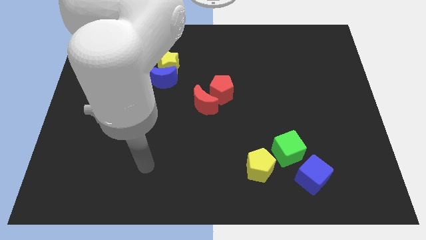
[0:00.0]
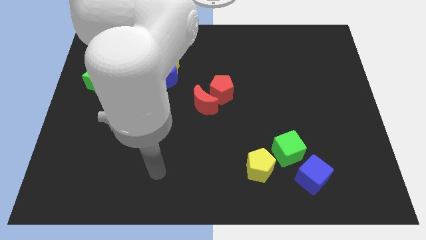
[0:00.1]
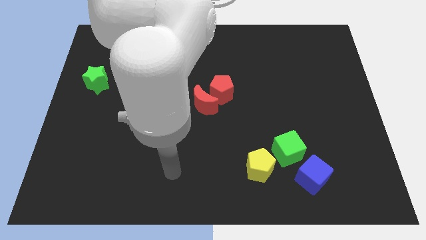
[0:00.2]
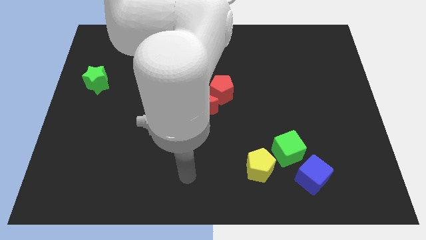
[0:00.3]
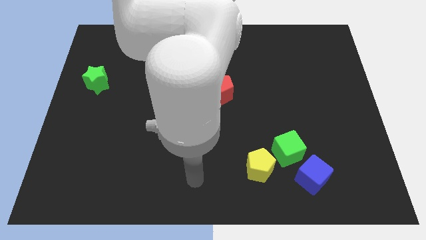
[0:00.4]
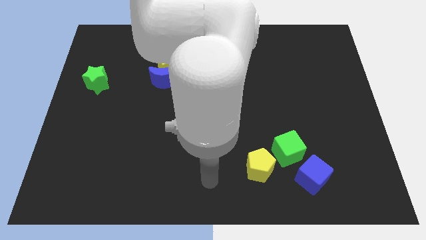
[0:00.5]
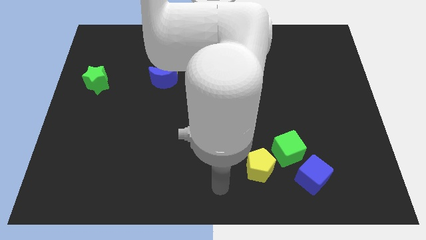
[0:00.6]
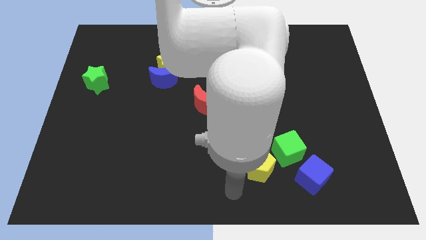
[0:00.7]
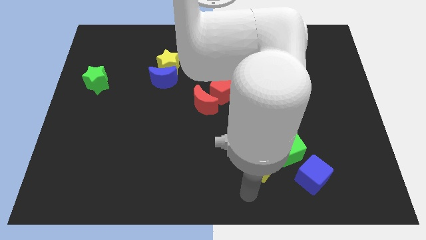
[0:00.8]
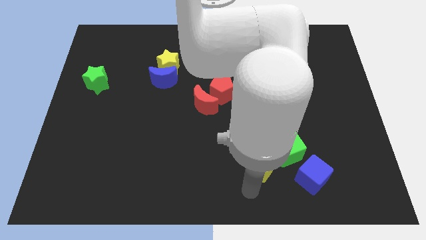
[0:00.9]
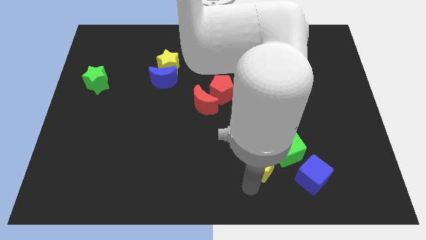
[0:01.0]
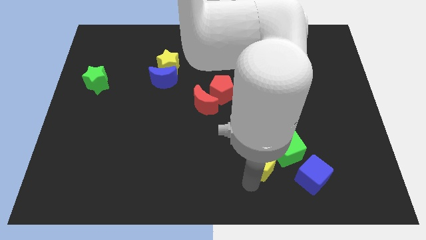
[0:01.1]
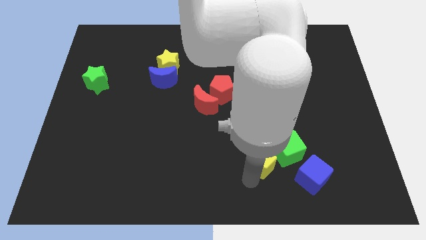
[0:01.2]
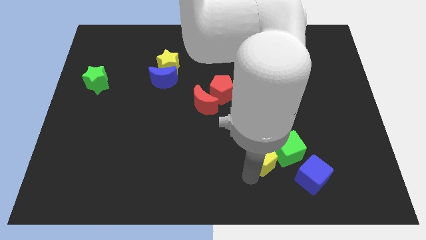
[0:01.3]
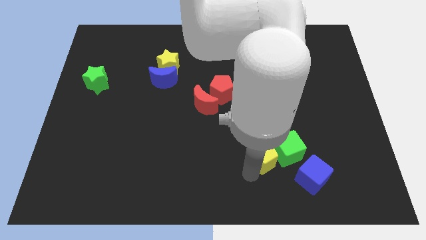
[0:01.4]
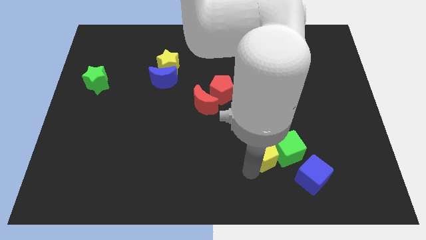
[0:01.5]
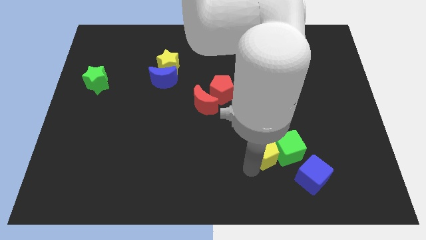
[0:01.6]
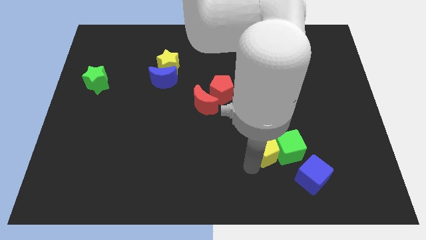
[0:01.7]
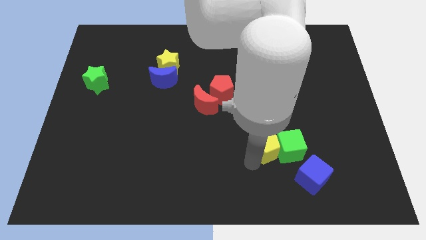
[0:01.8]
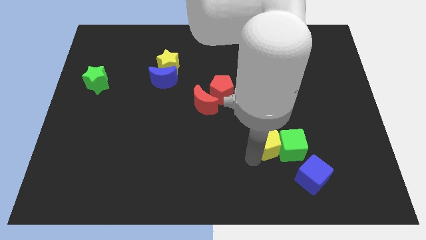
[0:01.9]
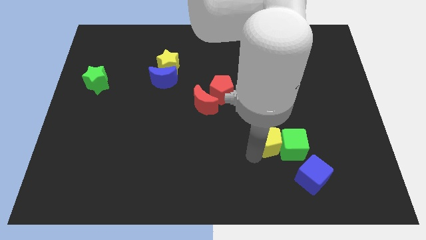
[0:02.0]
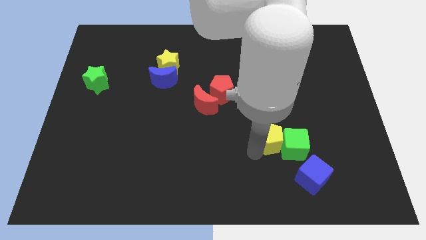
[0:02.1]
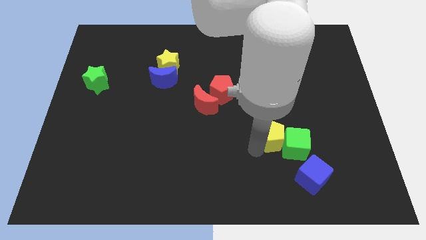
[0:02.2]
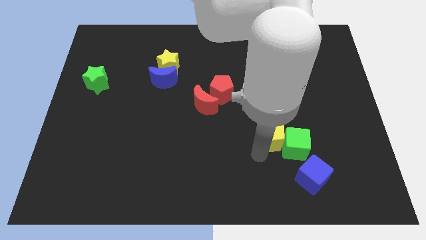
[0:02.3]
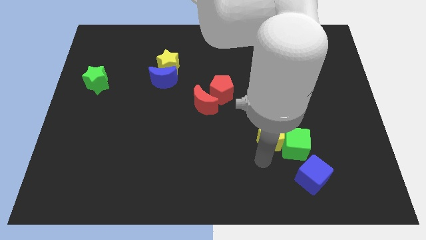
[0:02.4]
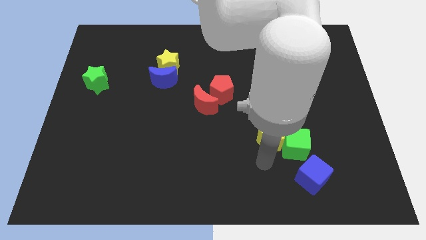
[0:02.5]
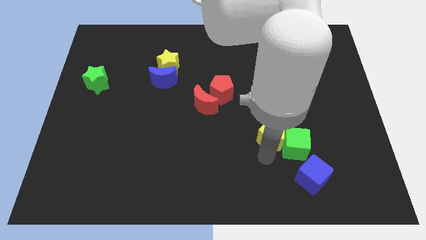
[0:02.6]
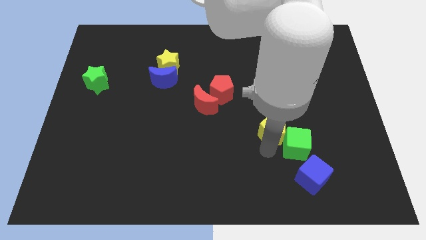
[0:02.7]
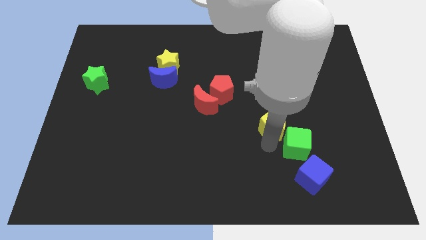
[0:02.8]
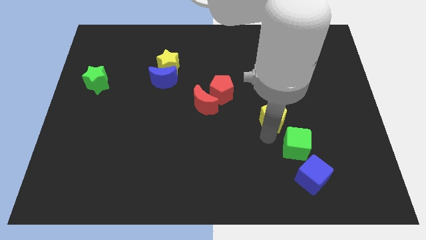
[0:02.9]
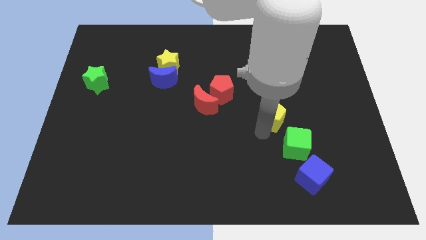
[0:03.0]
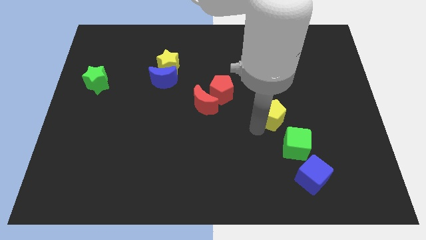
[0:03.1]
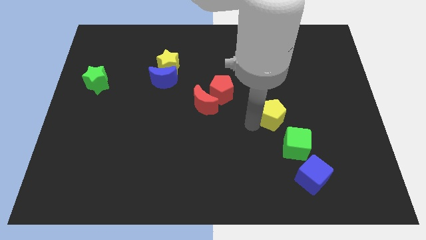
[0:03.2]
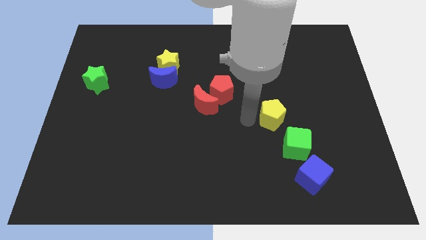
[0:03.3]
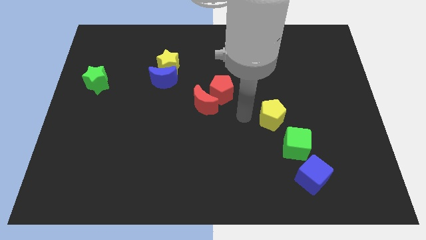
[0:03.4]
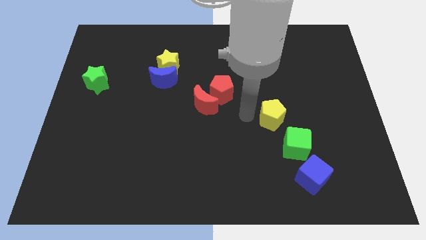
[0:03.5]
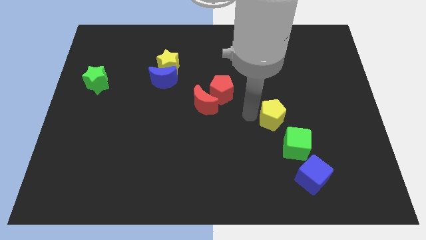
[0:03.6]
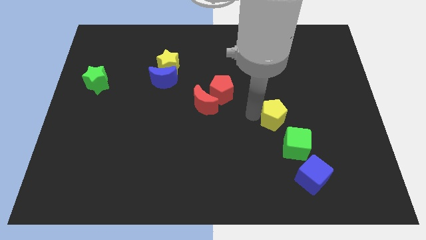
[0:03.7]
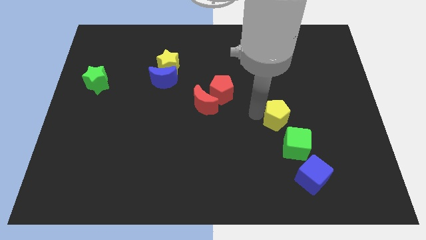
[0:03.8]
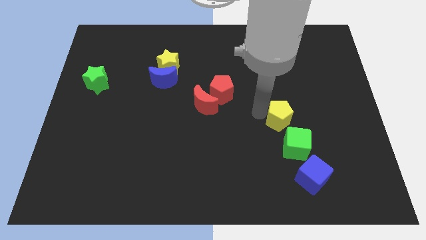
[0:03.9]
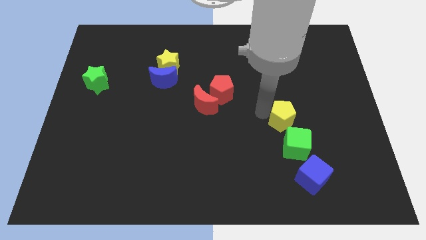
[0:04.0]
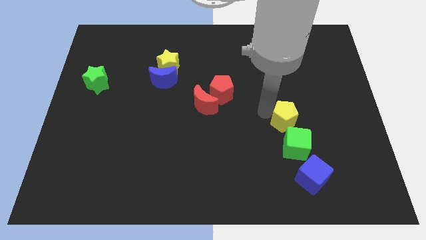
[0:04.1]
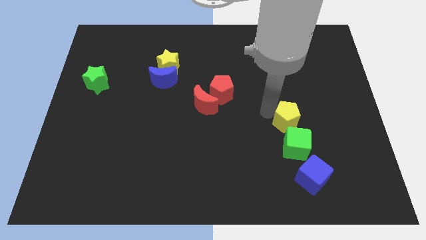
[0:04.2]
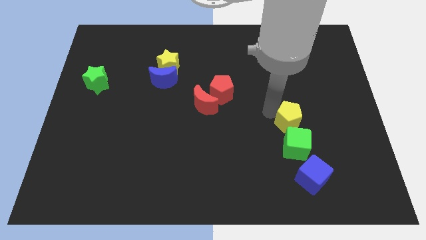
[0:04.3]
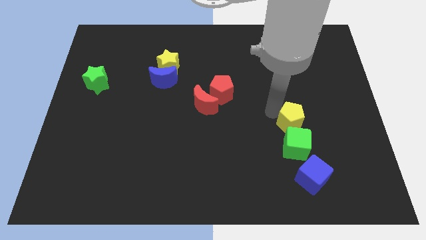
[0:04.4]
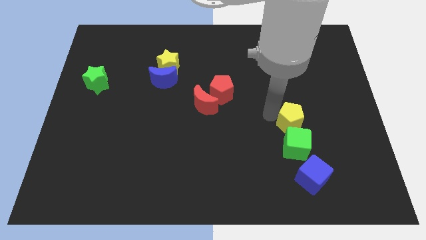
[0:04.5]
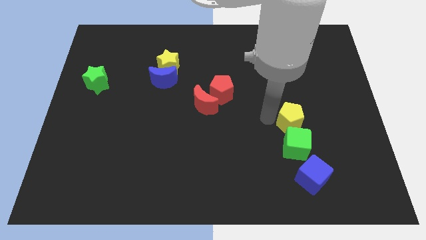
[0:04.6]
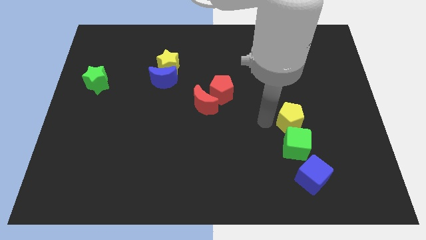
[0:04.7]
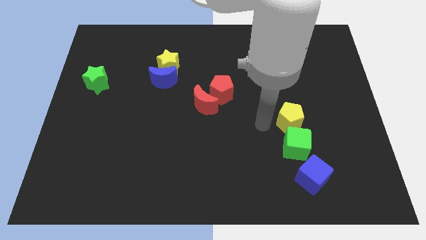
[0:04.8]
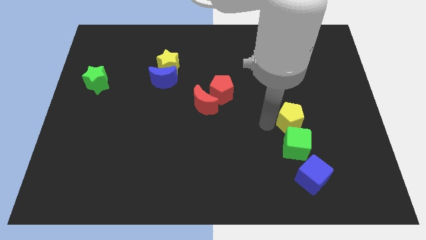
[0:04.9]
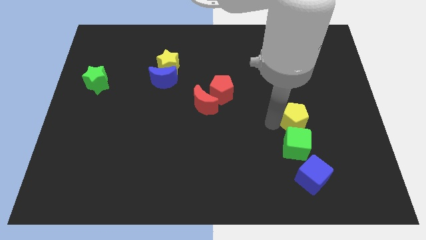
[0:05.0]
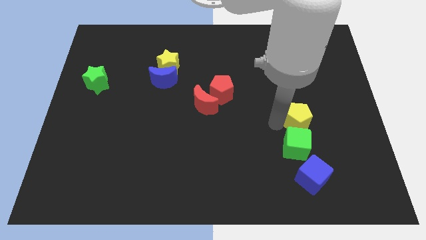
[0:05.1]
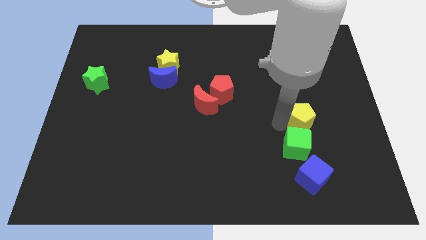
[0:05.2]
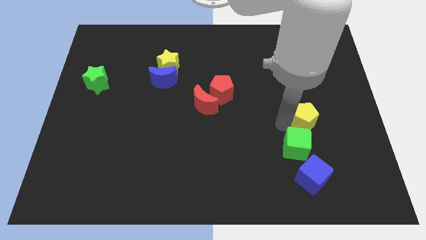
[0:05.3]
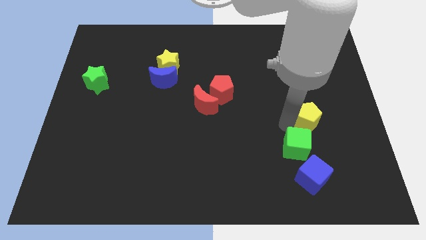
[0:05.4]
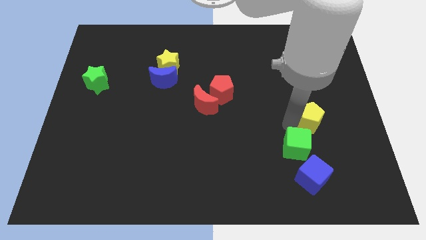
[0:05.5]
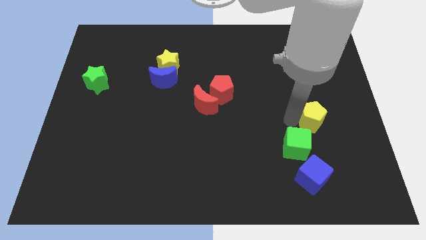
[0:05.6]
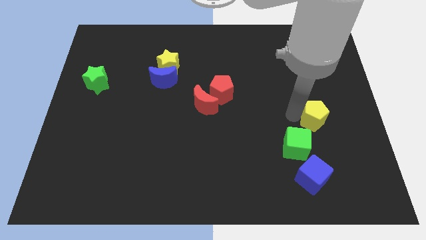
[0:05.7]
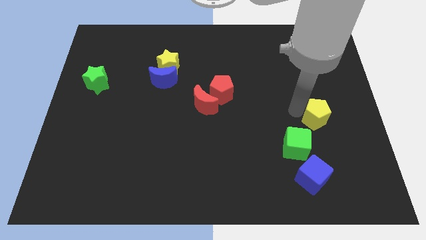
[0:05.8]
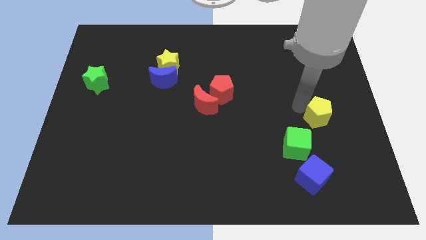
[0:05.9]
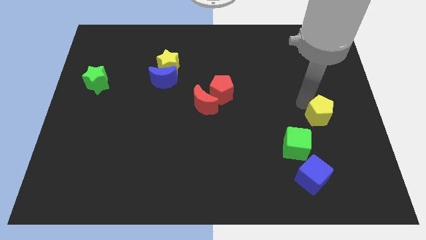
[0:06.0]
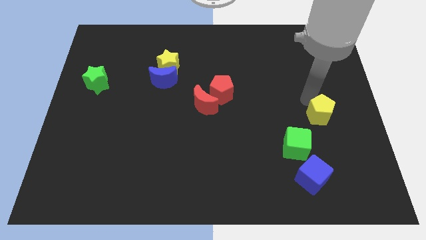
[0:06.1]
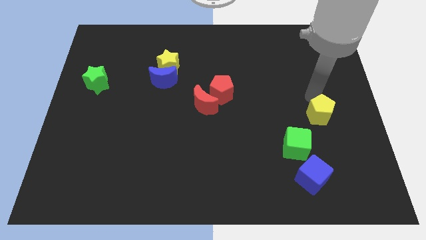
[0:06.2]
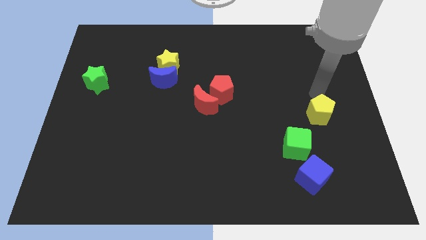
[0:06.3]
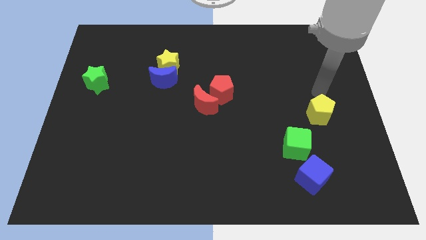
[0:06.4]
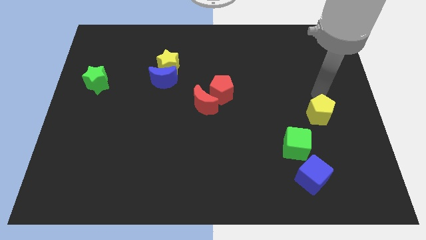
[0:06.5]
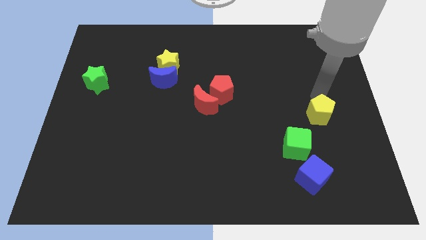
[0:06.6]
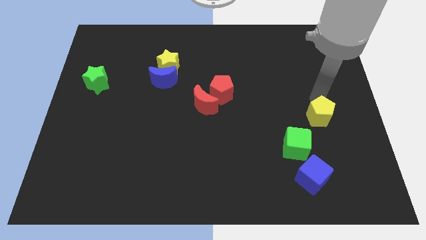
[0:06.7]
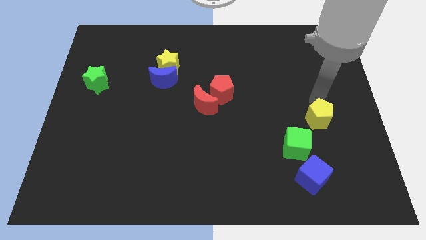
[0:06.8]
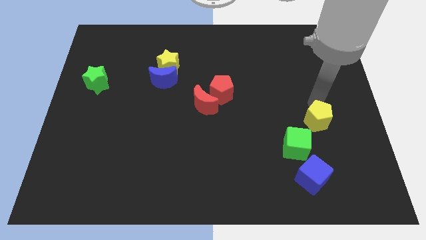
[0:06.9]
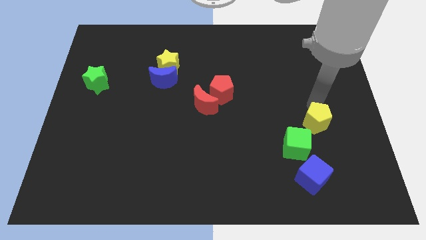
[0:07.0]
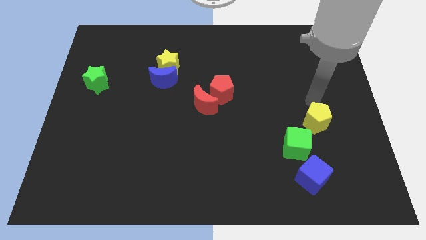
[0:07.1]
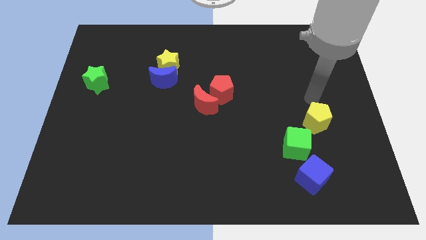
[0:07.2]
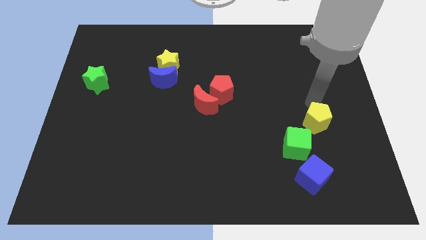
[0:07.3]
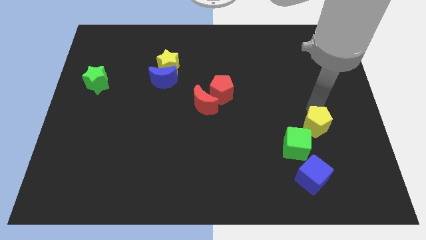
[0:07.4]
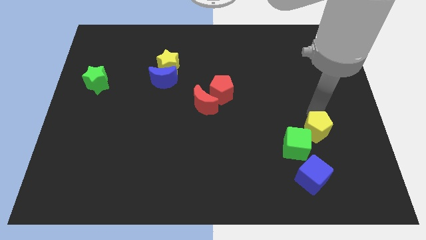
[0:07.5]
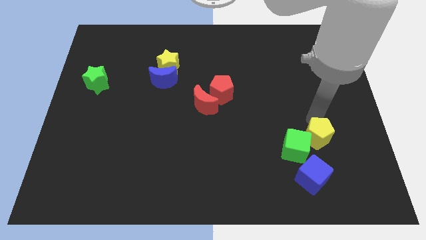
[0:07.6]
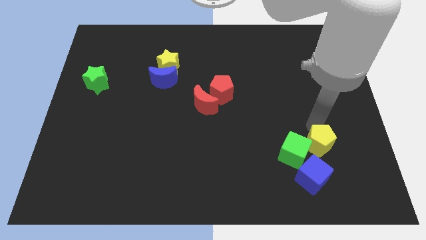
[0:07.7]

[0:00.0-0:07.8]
move the yellow pentagon to the top right of the blue cube
